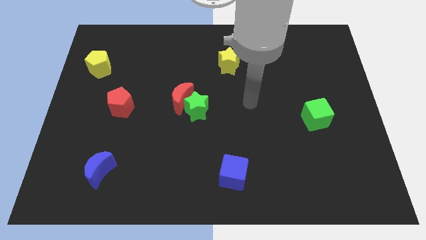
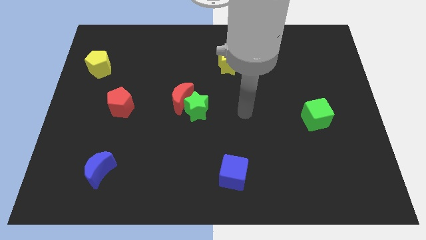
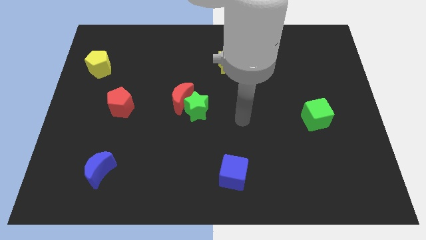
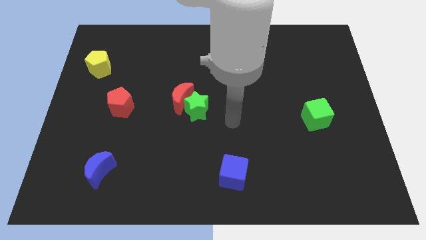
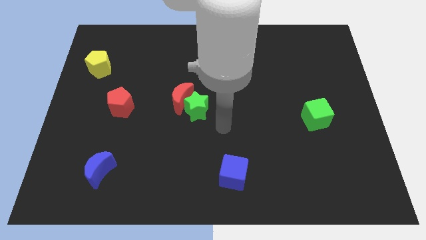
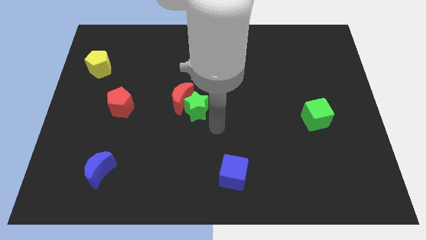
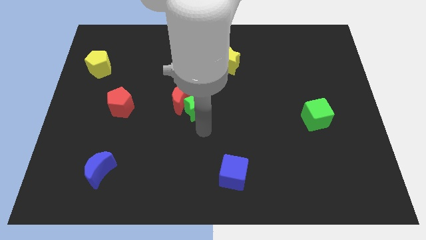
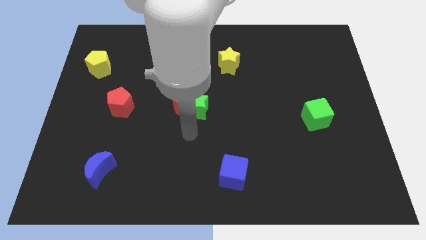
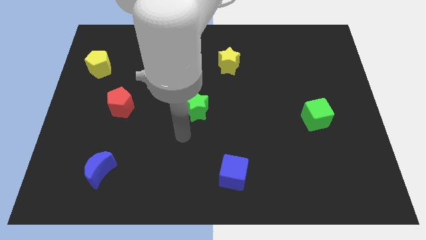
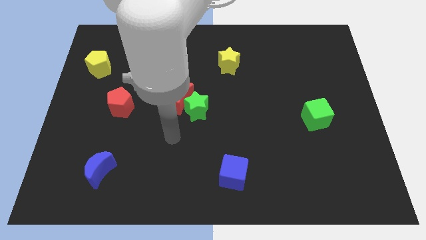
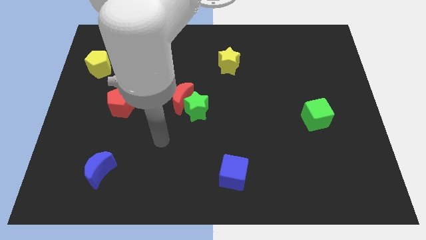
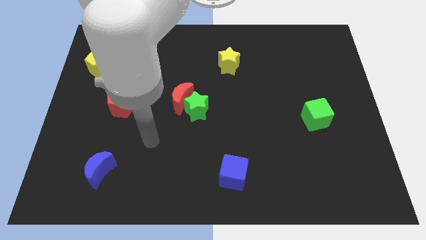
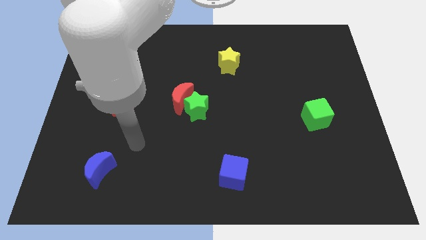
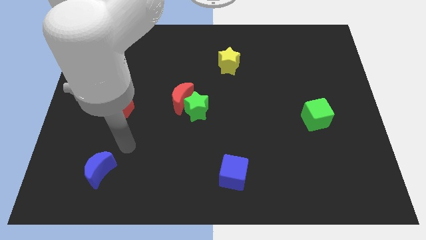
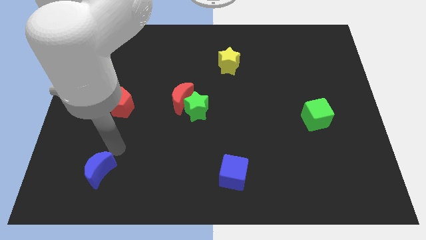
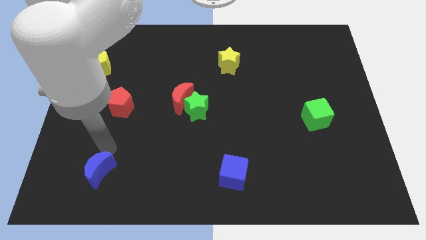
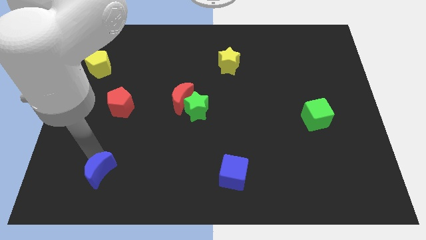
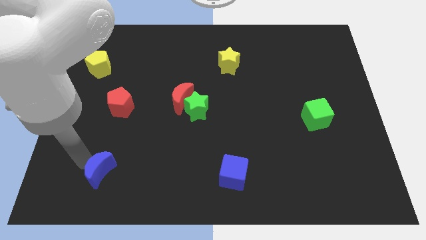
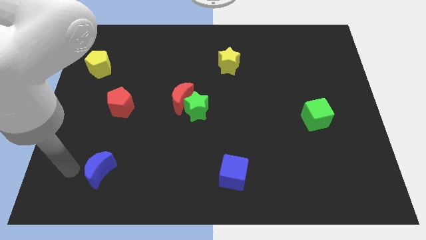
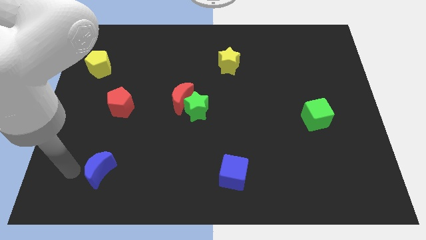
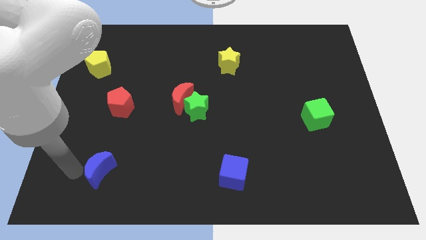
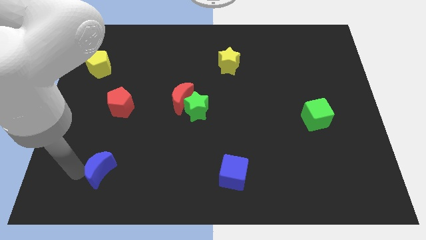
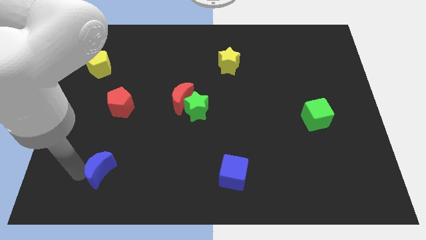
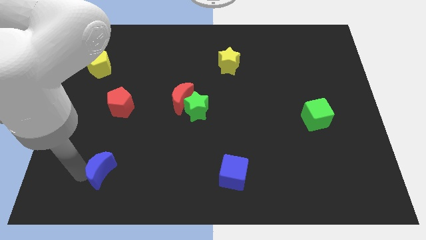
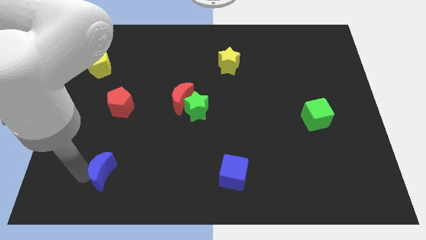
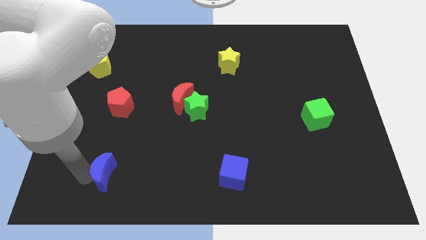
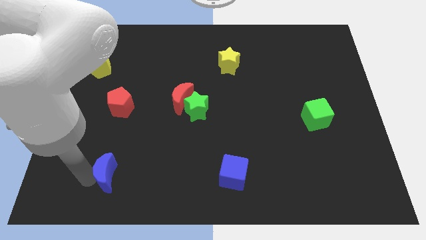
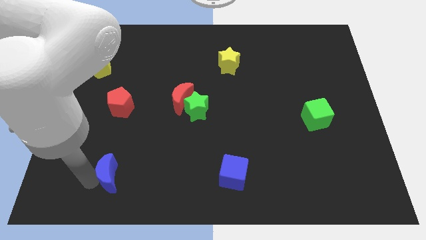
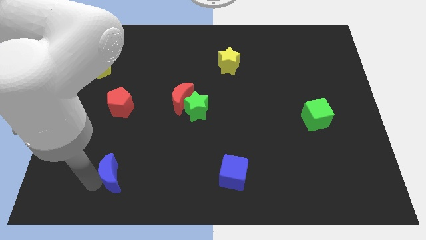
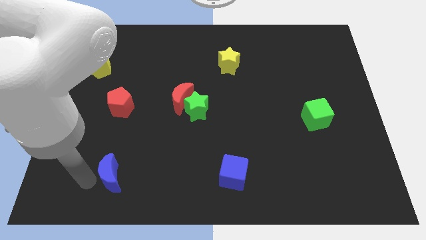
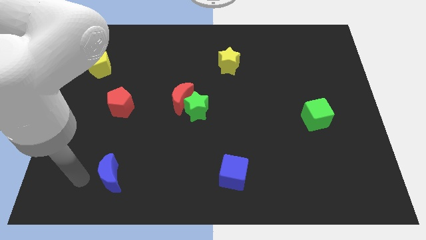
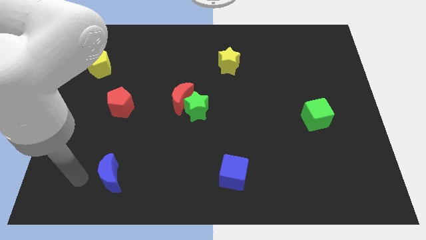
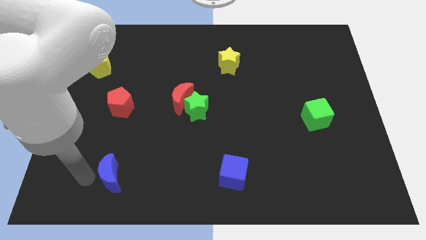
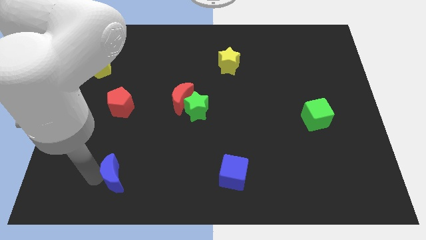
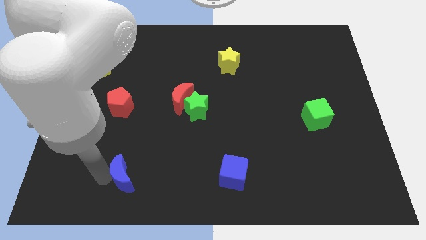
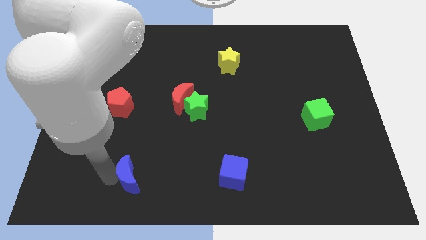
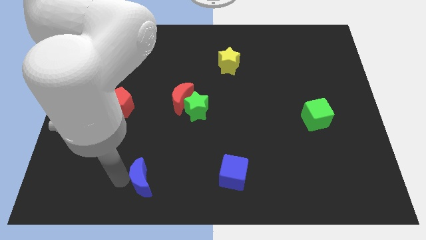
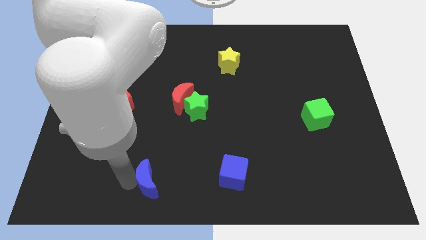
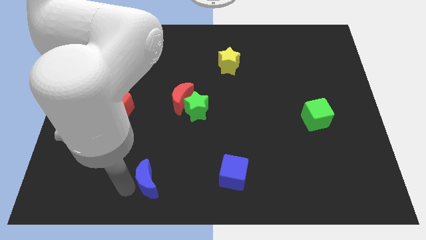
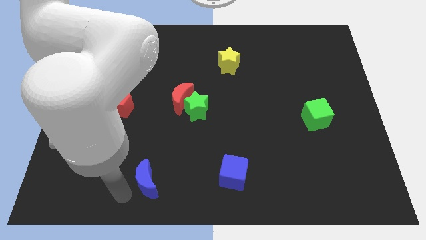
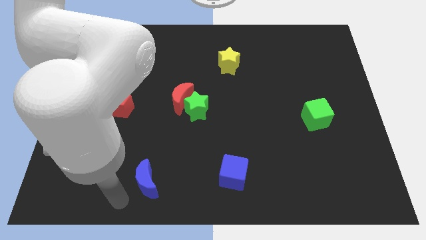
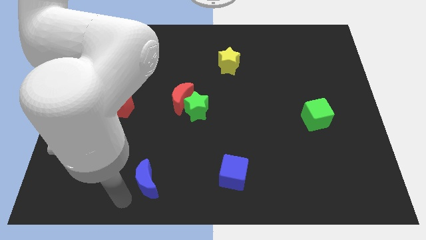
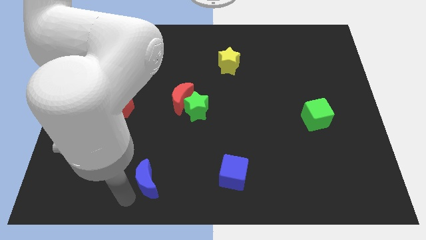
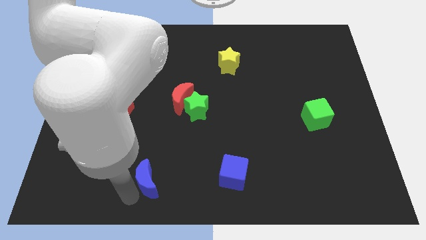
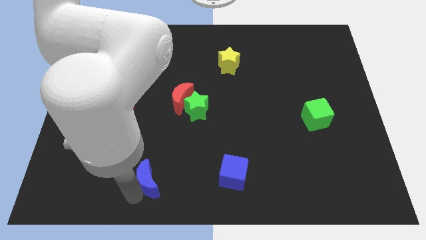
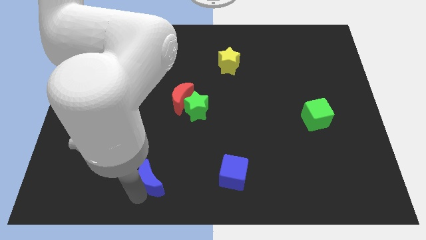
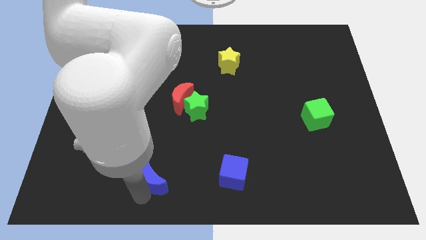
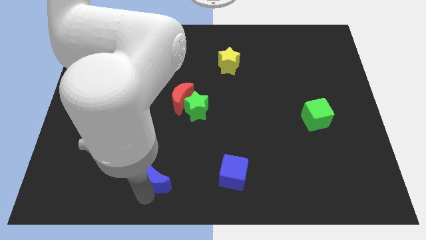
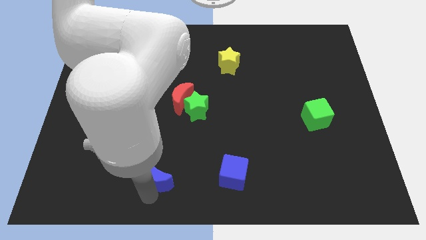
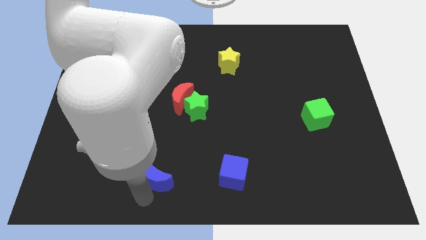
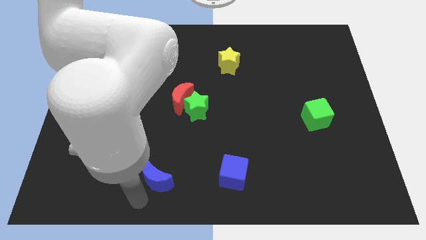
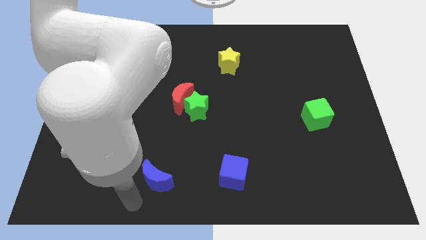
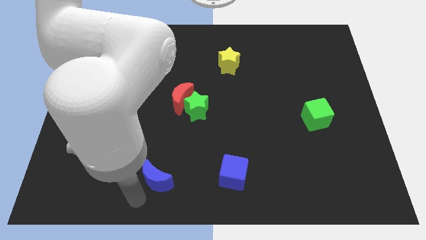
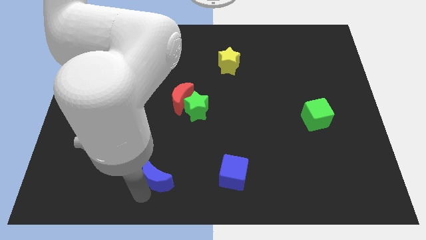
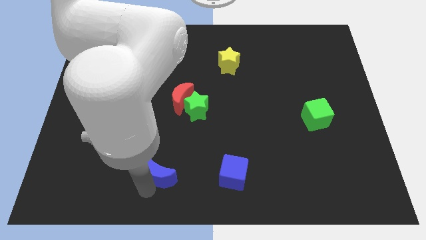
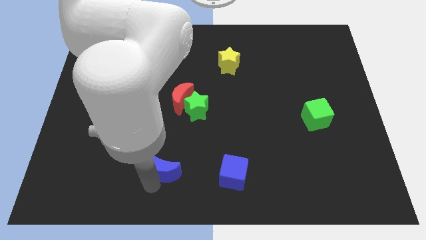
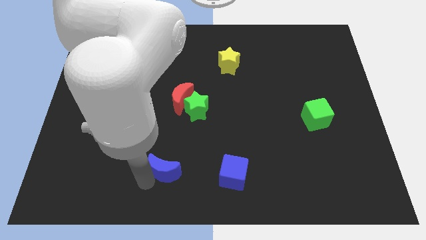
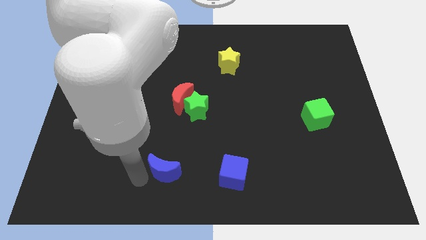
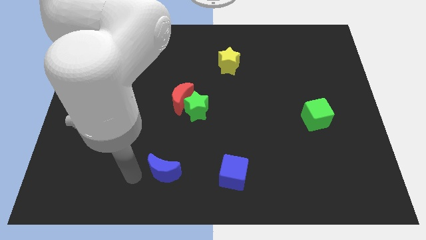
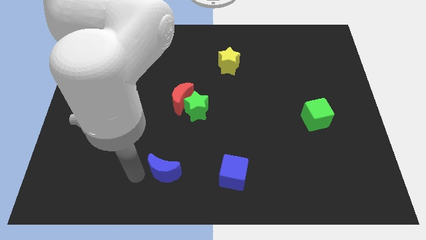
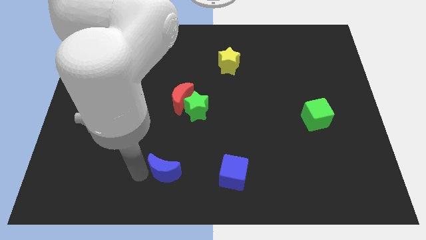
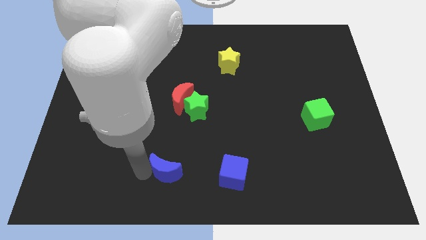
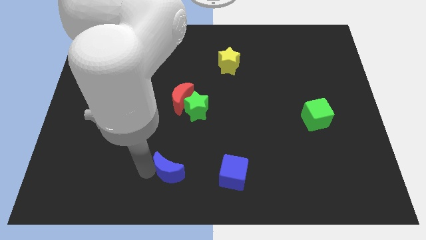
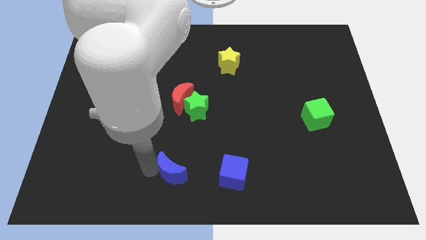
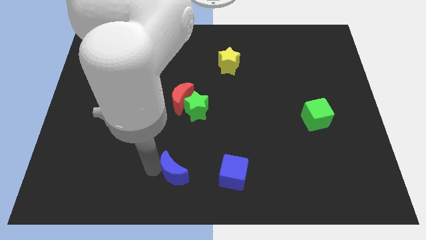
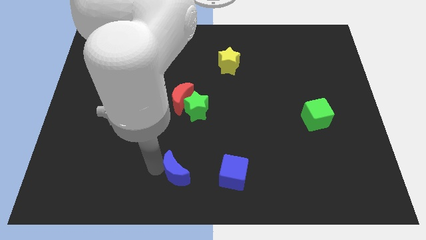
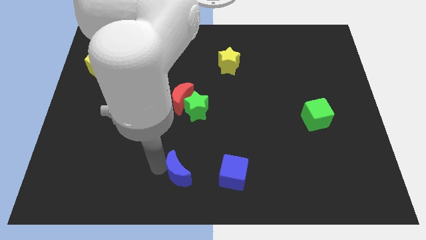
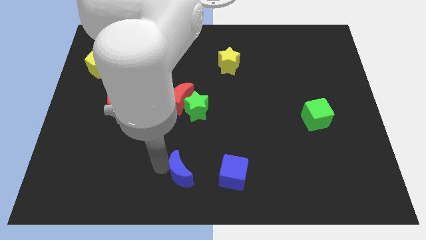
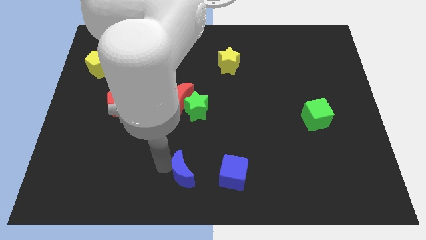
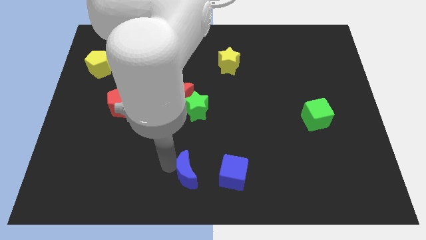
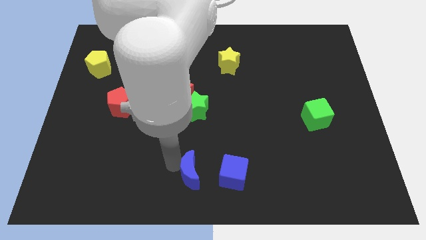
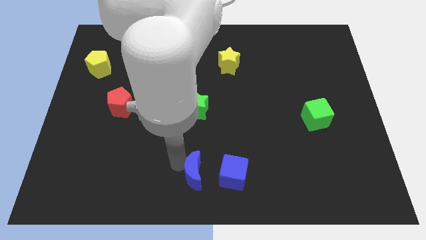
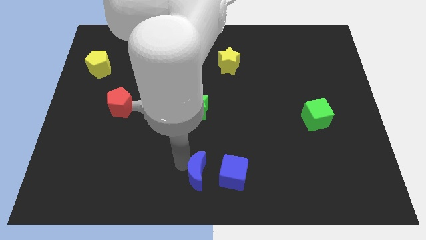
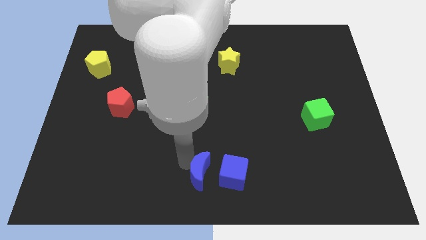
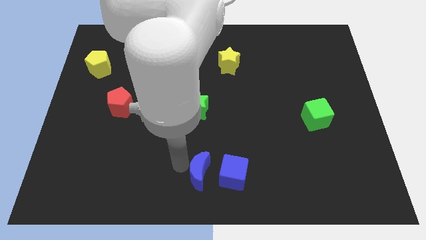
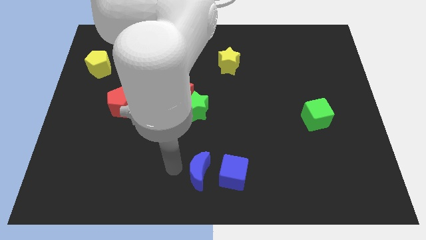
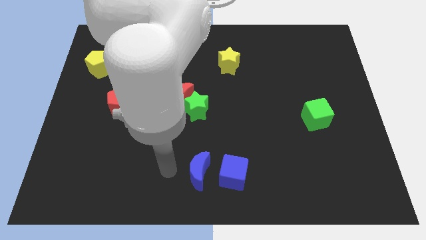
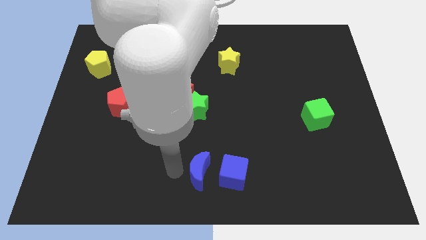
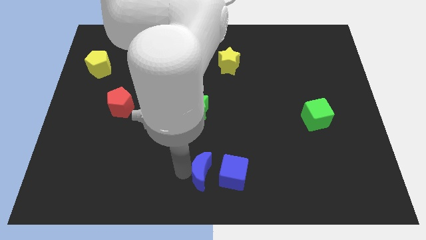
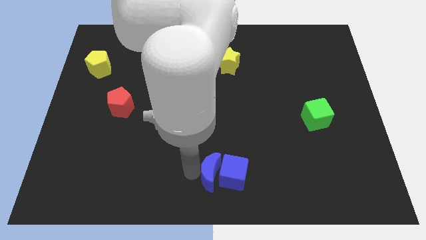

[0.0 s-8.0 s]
put the blue moon next to the blue cube
